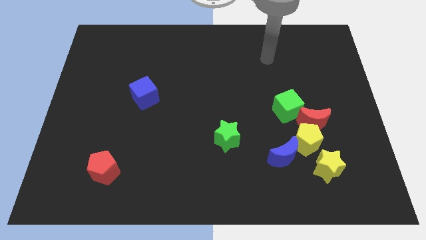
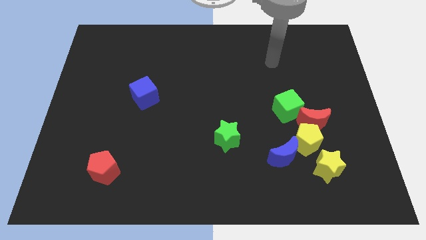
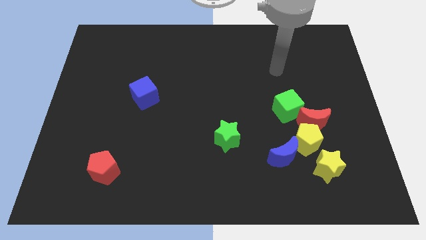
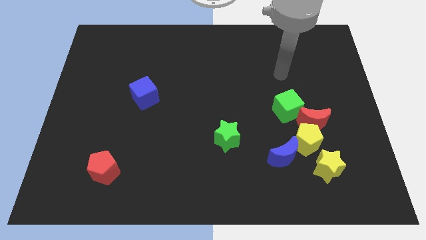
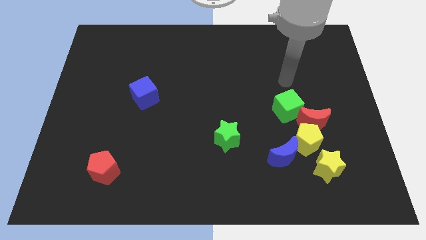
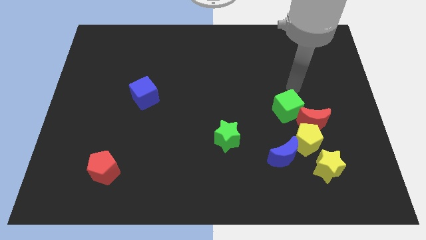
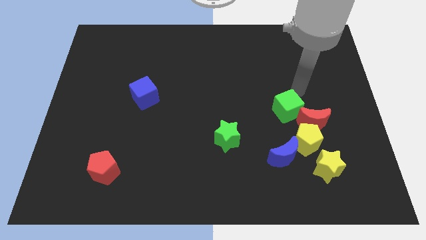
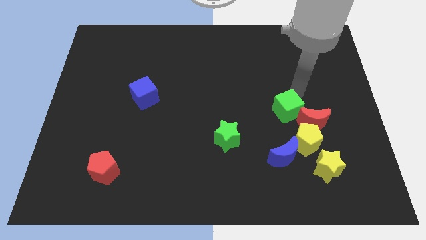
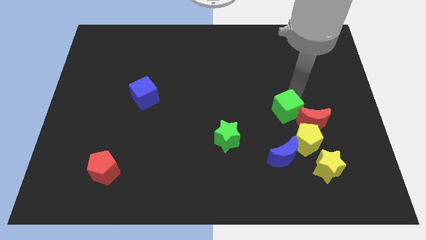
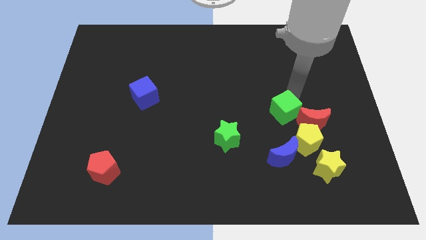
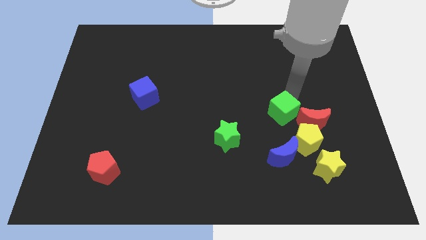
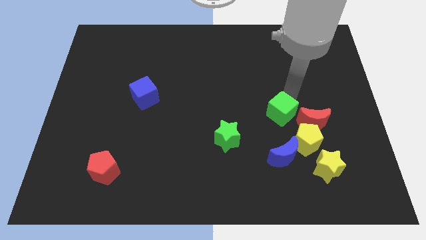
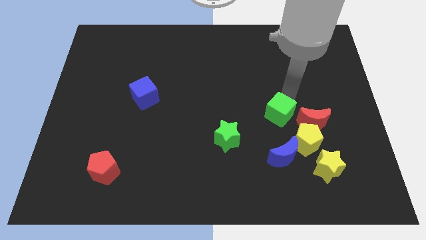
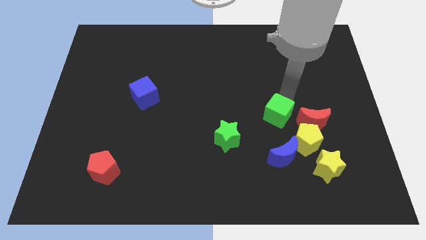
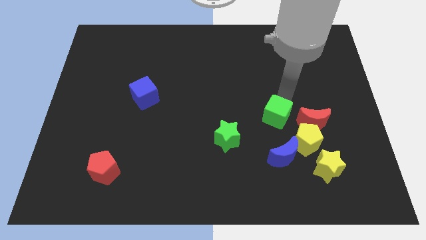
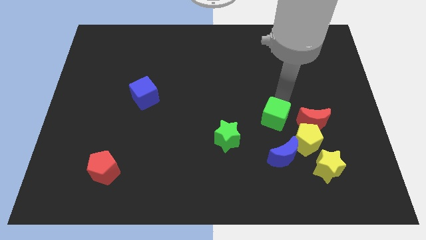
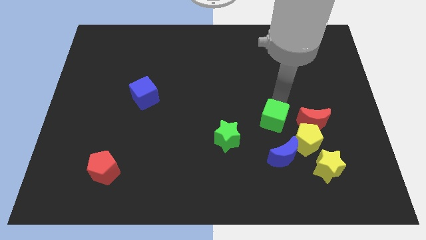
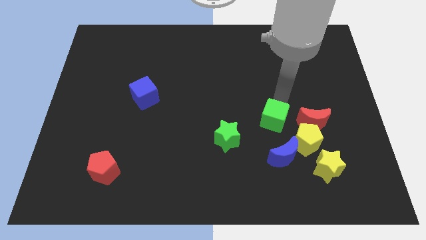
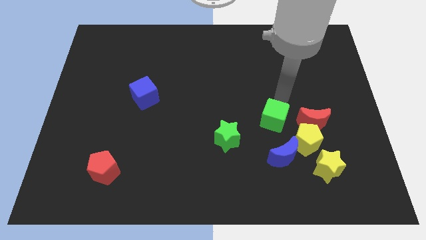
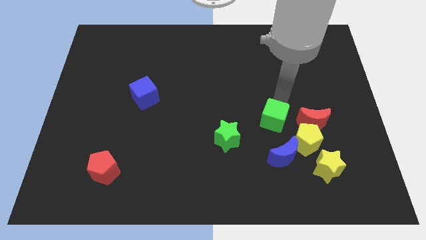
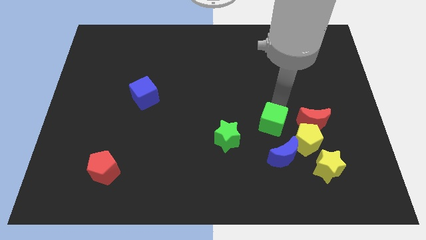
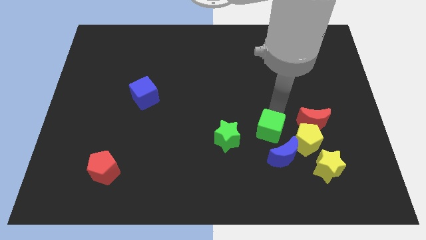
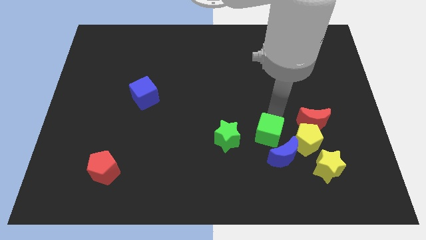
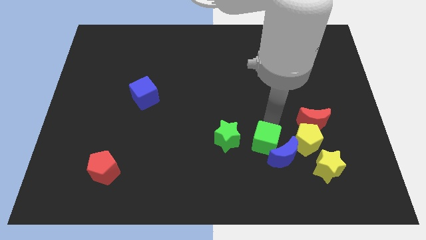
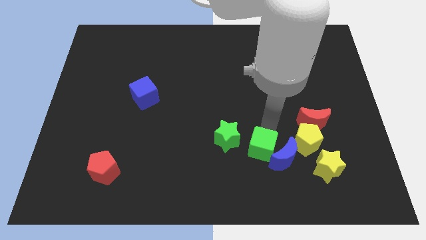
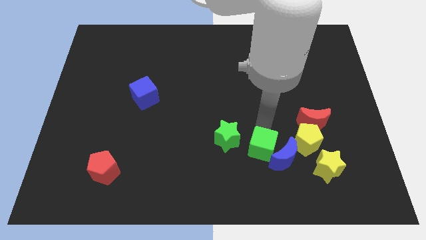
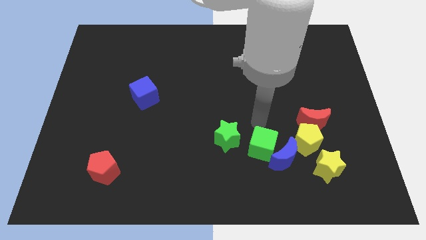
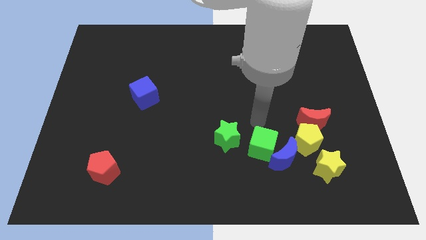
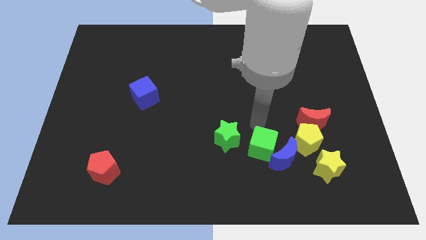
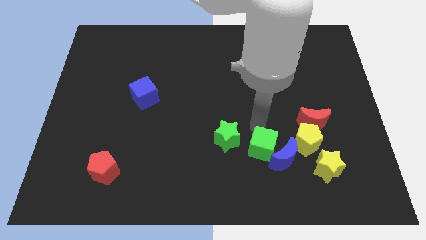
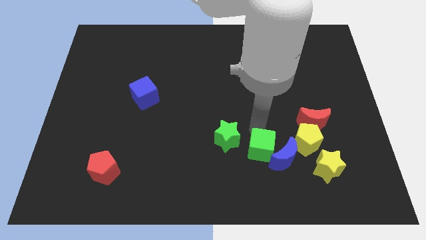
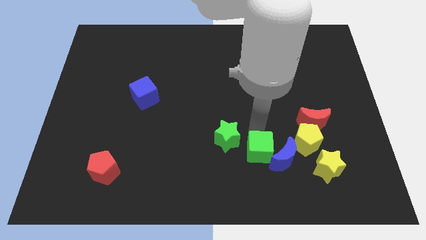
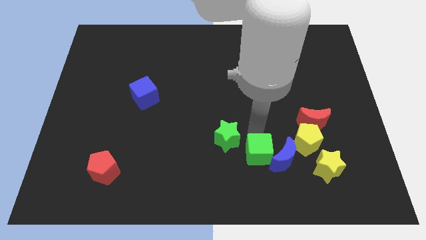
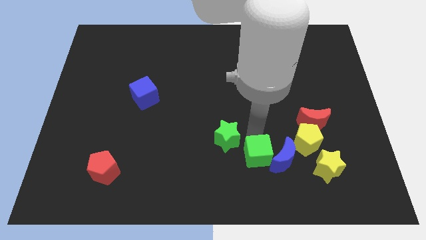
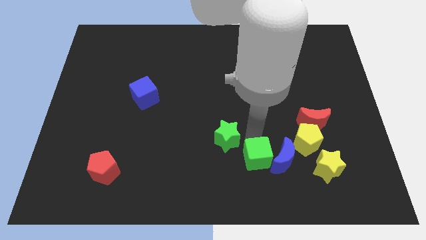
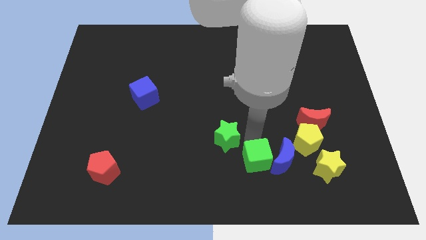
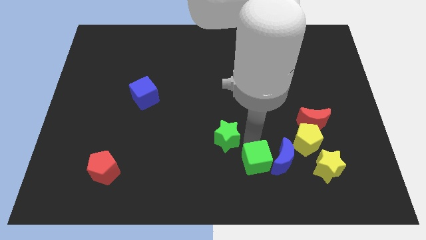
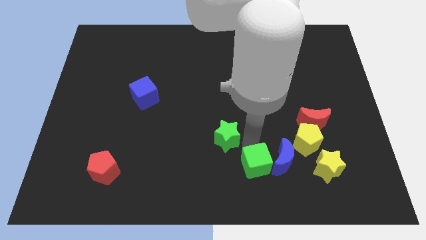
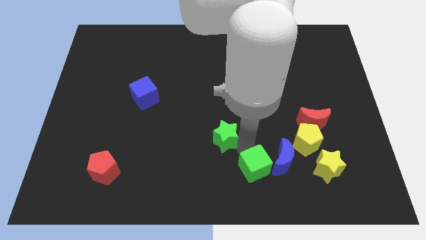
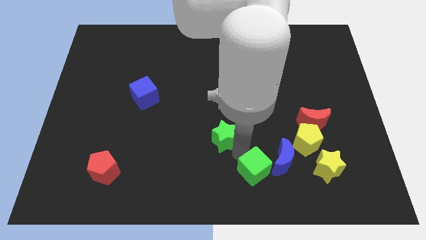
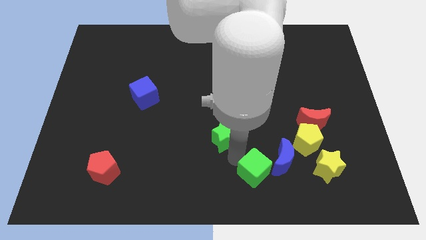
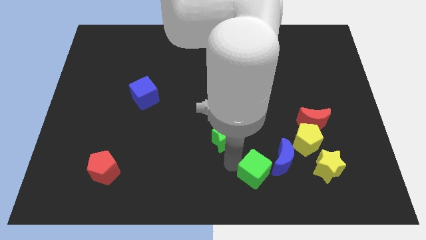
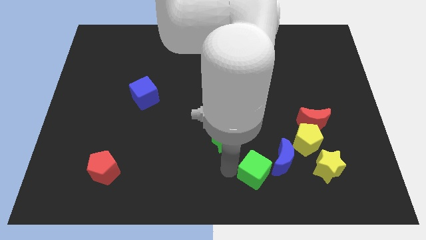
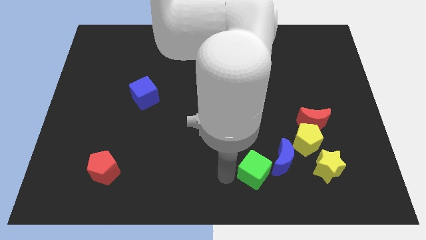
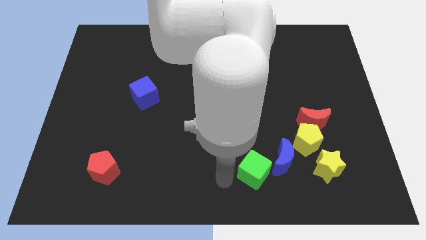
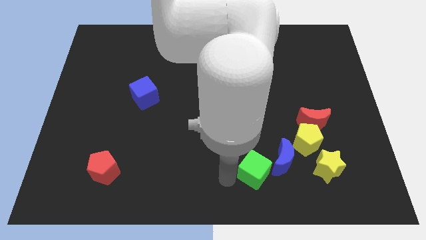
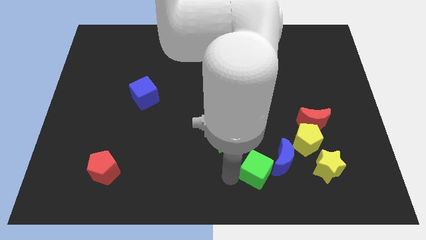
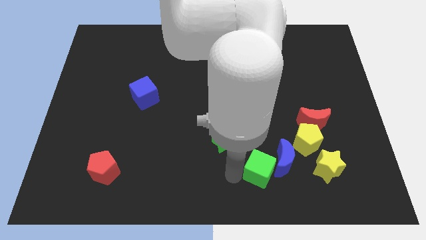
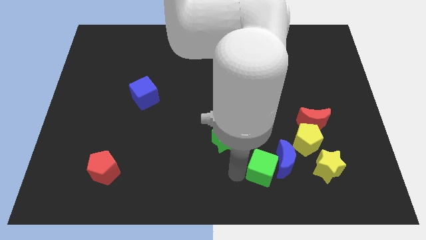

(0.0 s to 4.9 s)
move the green cube diagonally down and to the left of the yellow pentagon

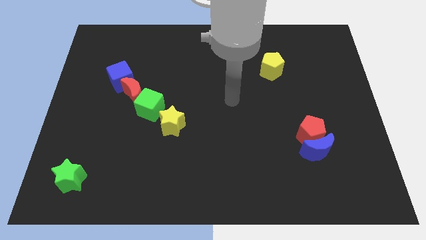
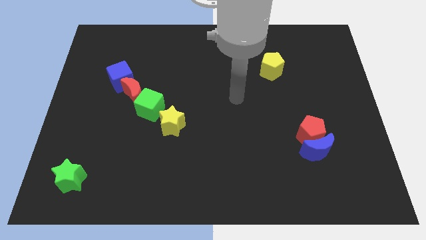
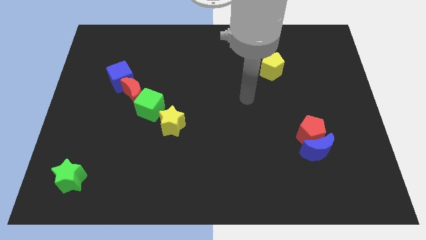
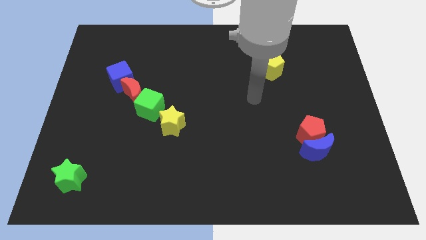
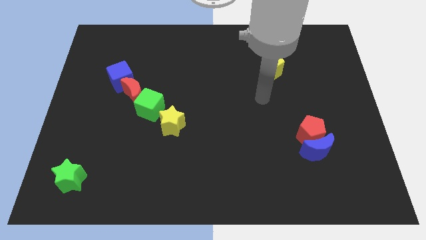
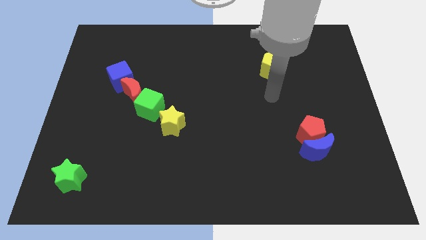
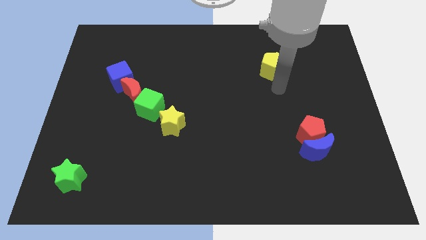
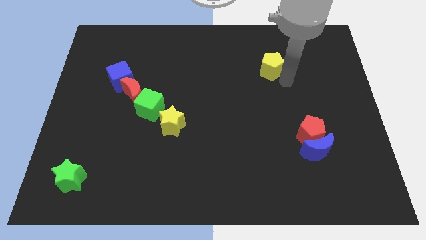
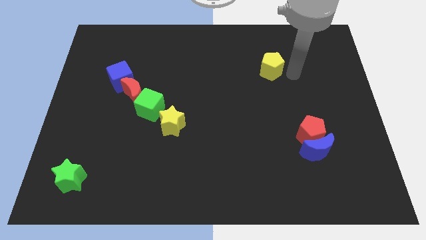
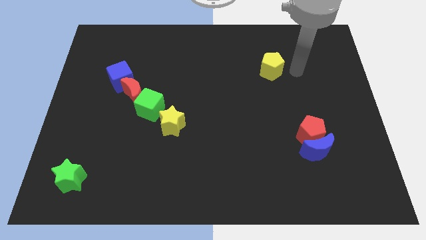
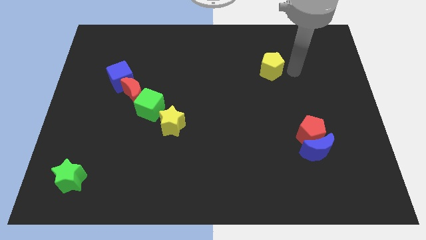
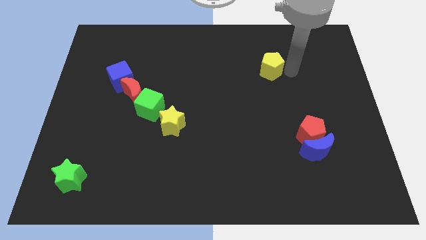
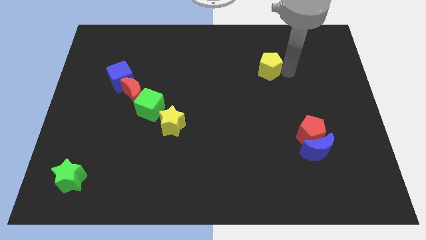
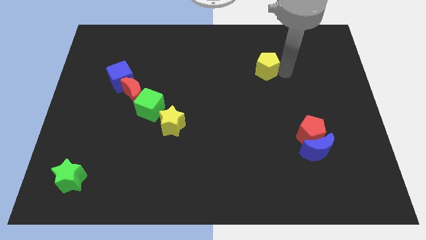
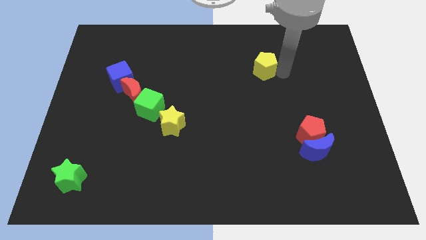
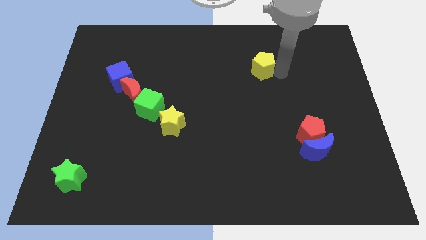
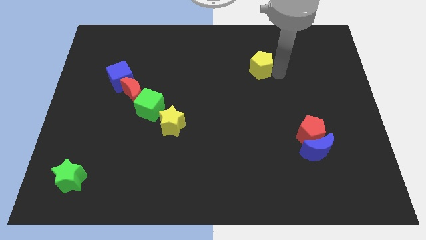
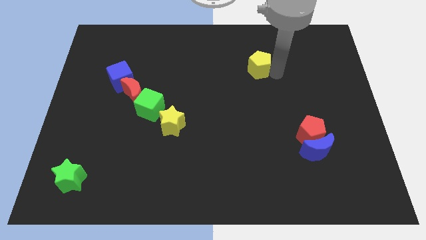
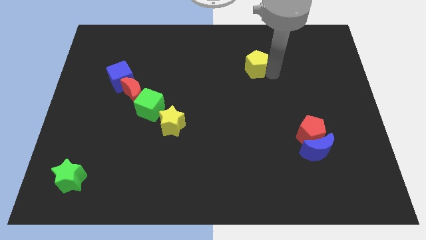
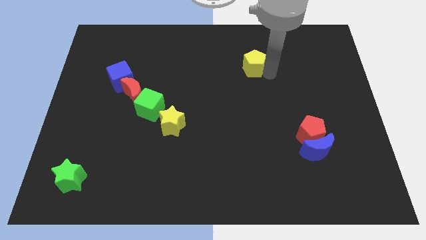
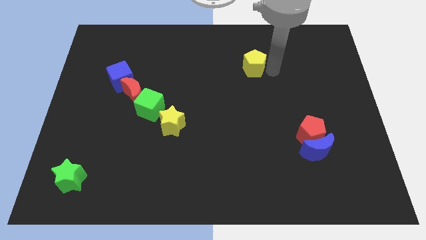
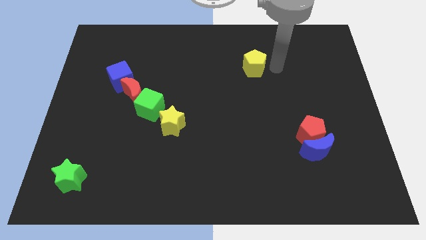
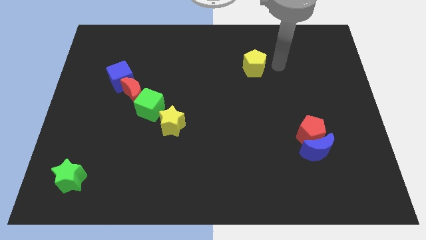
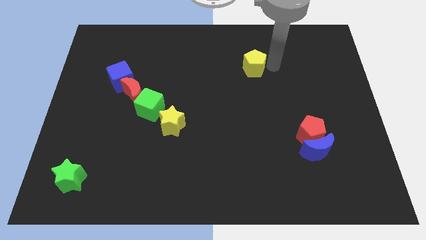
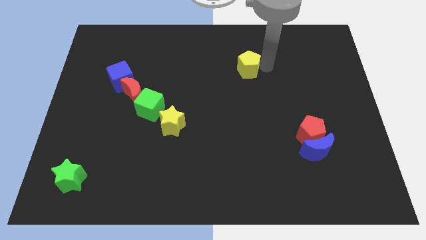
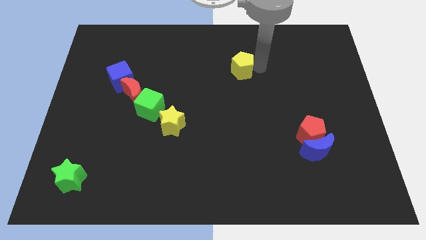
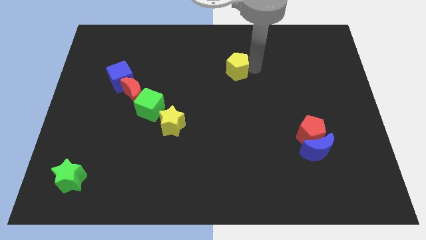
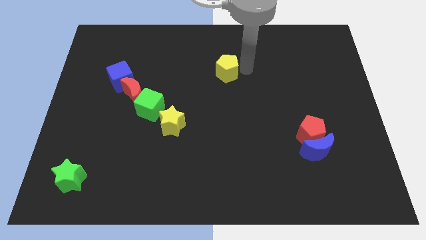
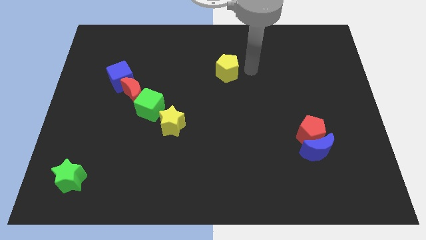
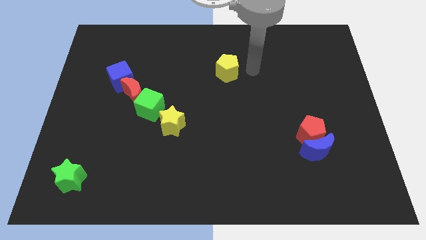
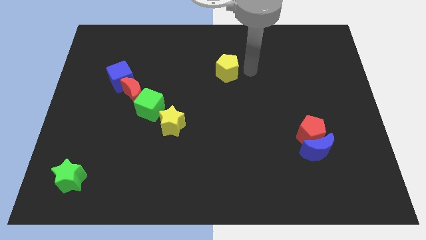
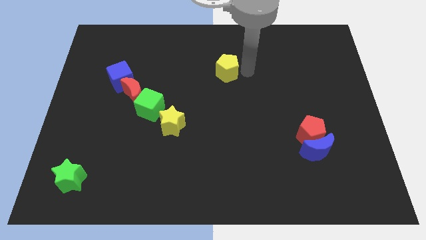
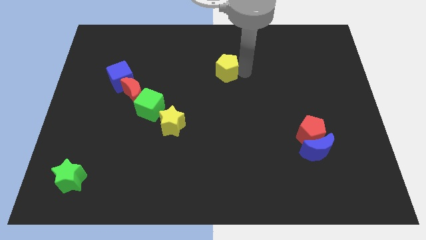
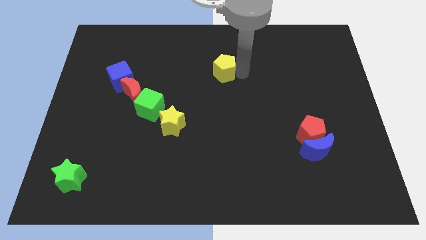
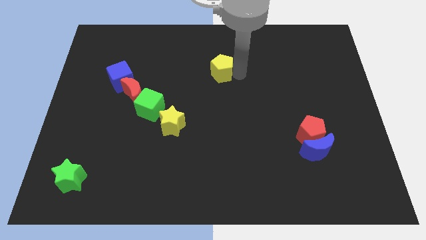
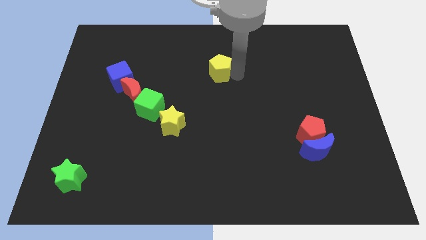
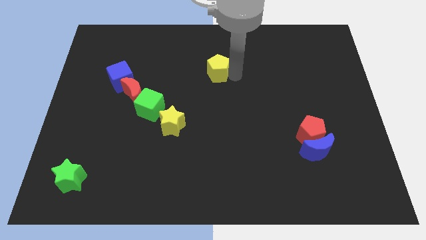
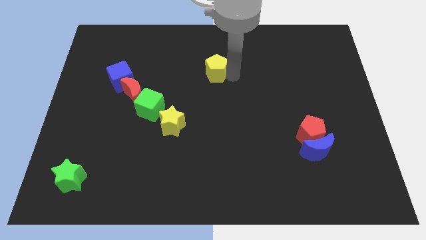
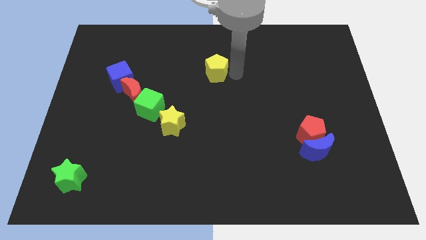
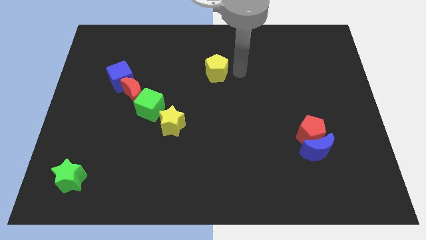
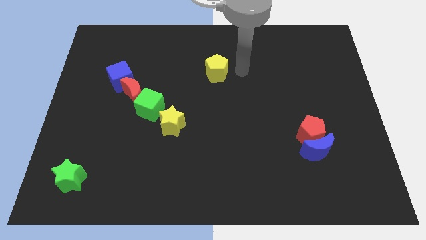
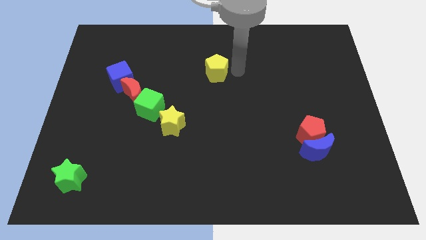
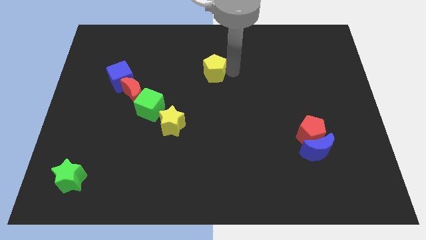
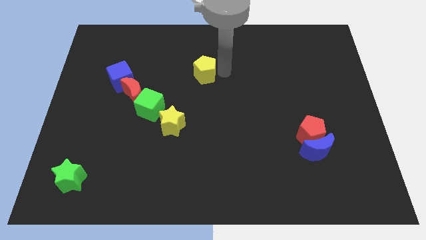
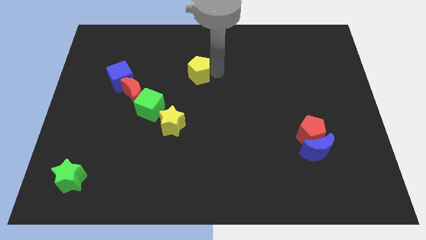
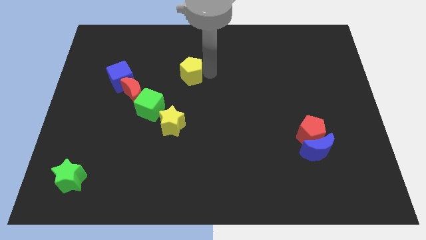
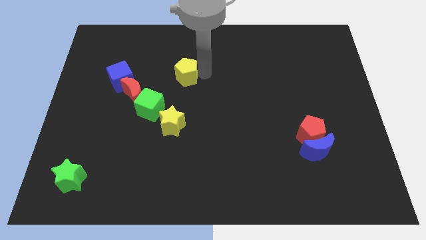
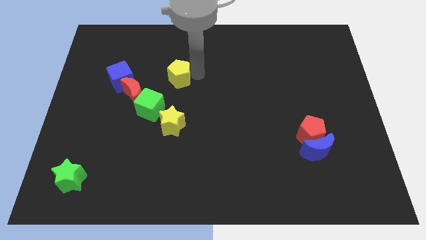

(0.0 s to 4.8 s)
push the yellow pentagon to the top right of the red moon
